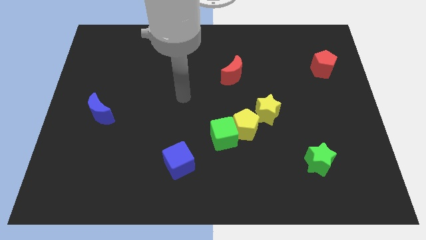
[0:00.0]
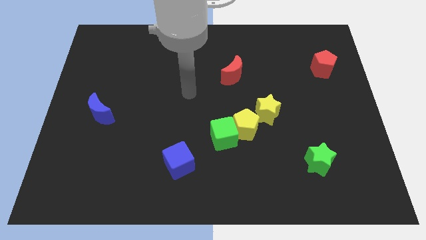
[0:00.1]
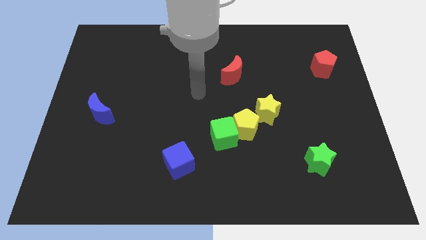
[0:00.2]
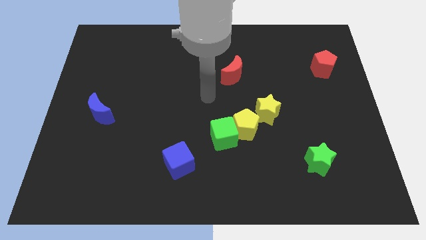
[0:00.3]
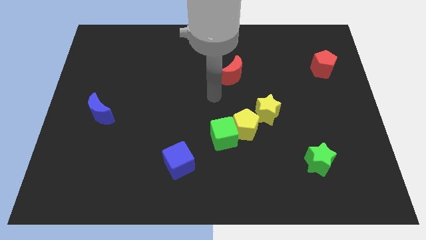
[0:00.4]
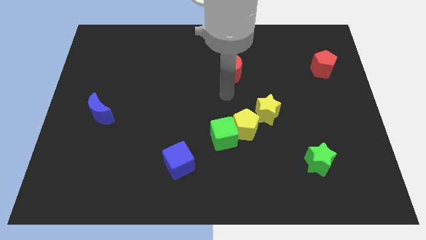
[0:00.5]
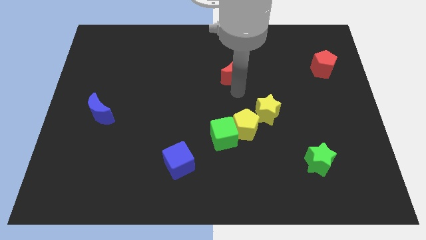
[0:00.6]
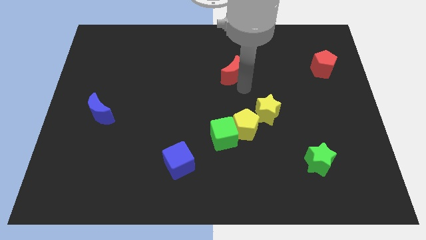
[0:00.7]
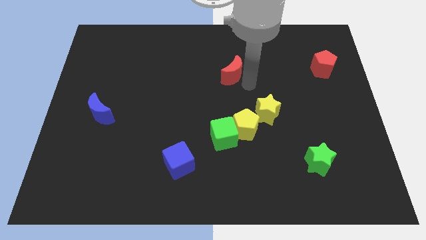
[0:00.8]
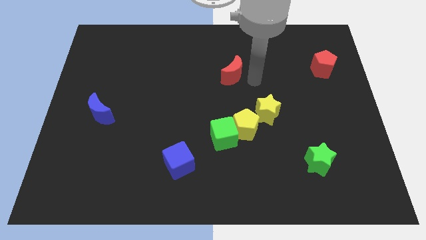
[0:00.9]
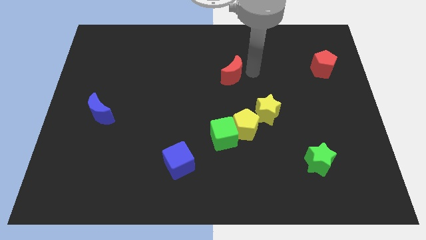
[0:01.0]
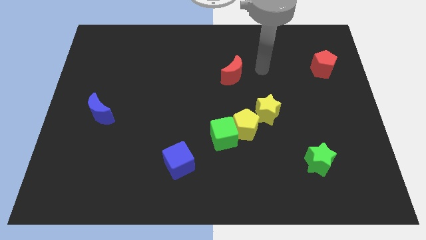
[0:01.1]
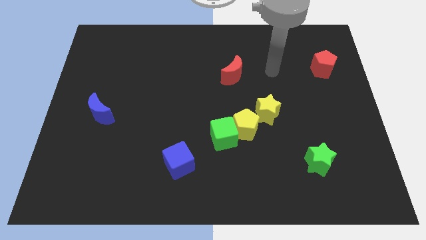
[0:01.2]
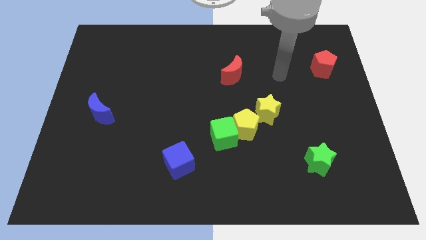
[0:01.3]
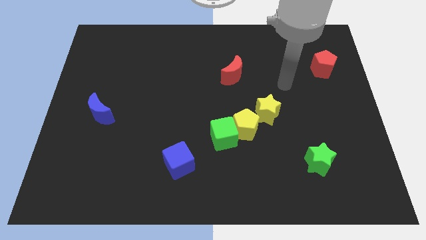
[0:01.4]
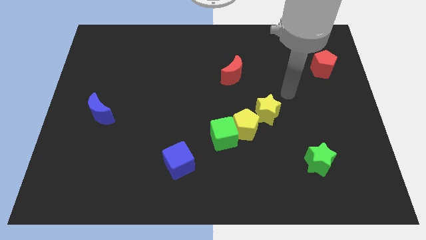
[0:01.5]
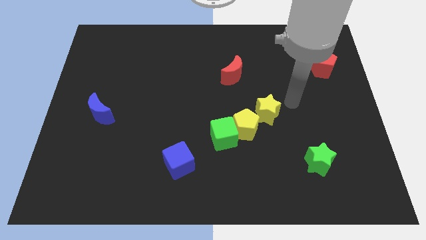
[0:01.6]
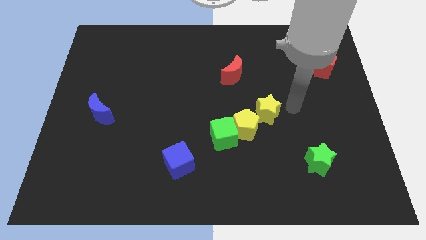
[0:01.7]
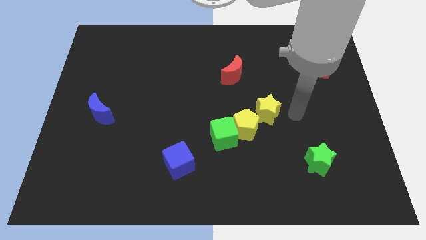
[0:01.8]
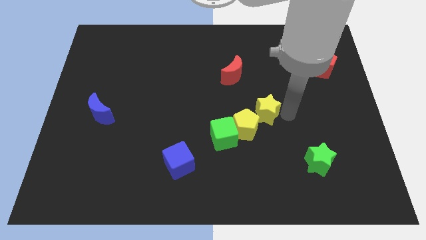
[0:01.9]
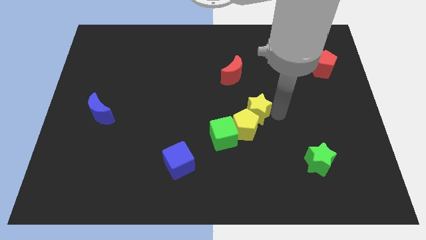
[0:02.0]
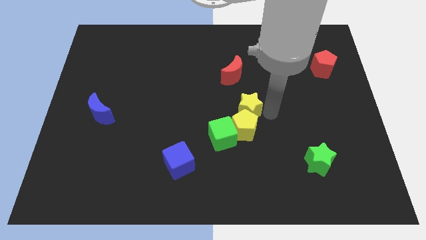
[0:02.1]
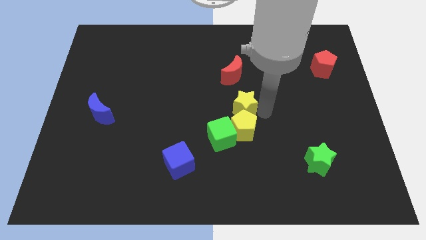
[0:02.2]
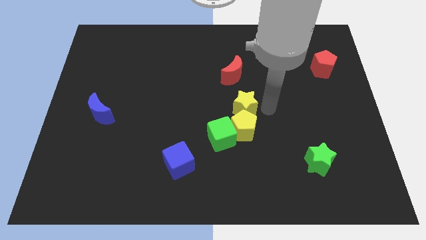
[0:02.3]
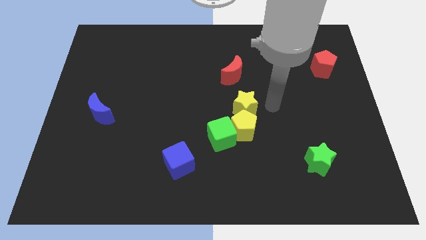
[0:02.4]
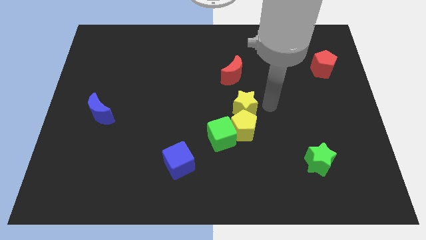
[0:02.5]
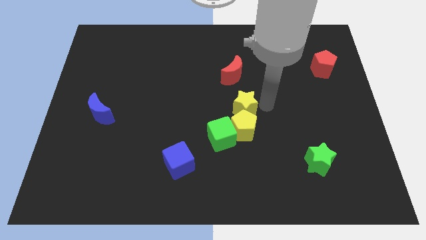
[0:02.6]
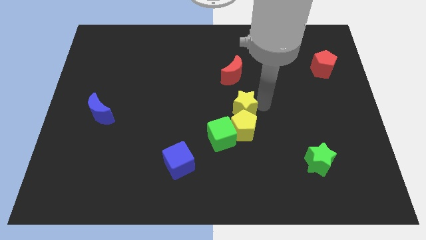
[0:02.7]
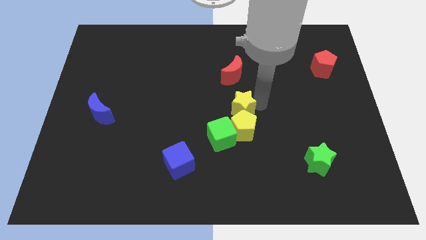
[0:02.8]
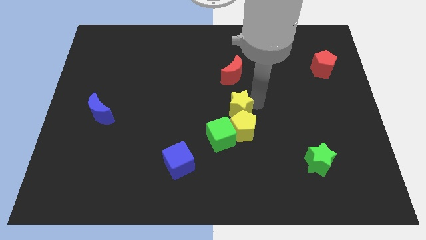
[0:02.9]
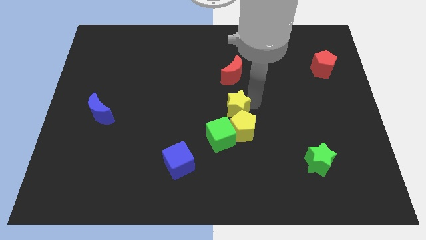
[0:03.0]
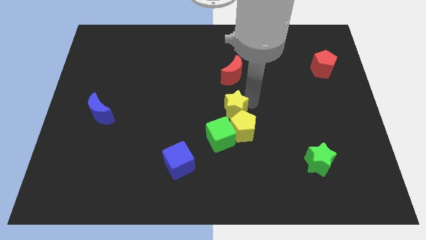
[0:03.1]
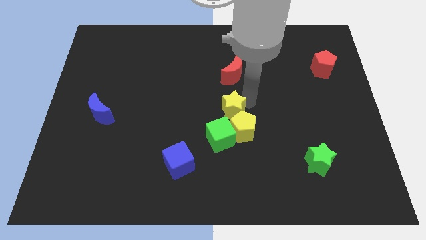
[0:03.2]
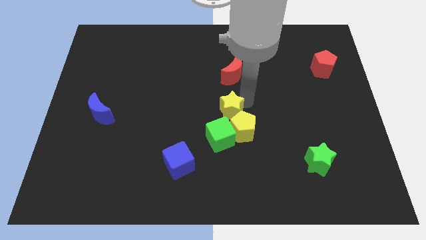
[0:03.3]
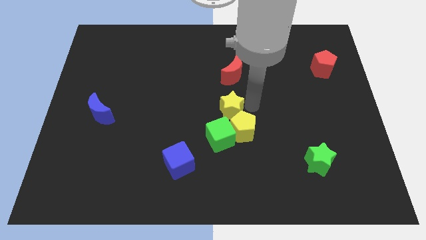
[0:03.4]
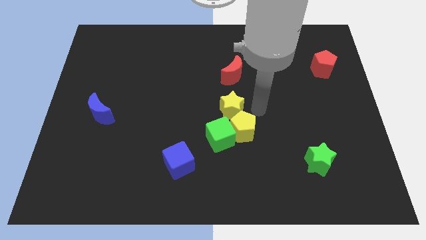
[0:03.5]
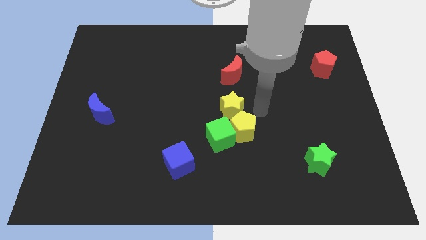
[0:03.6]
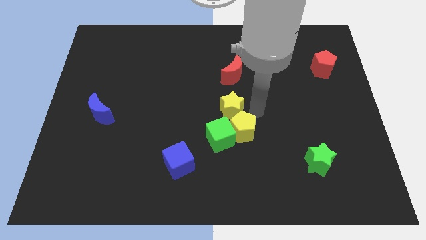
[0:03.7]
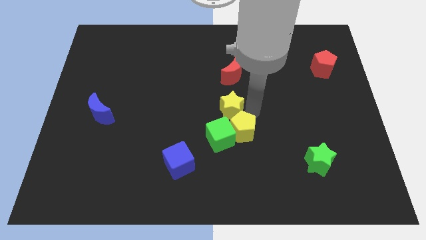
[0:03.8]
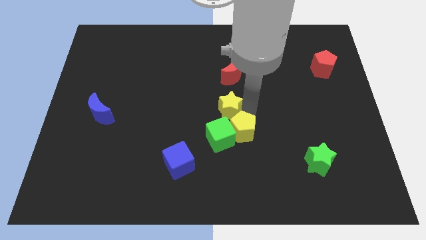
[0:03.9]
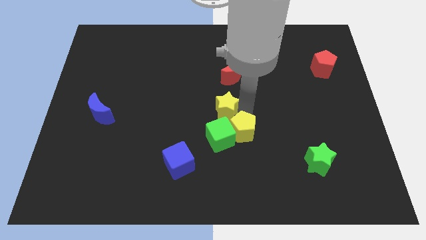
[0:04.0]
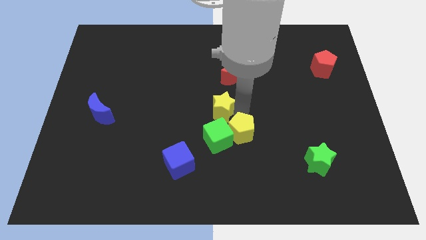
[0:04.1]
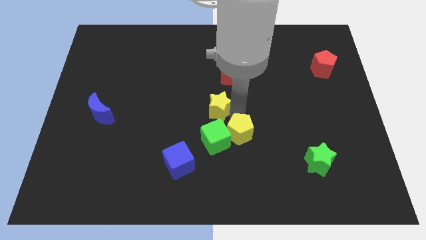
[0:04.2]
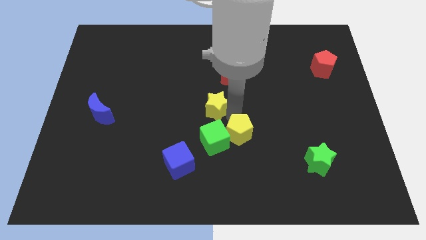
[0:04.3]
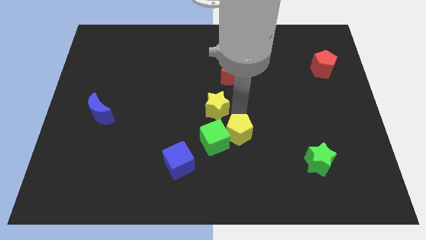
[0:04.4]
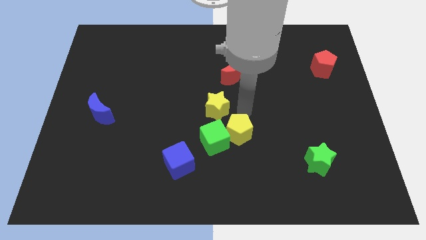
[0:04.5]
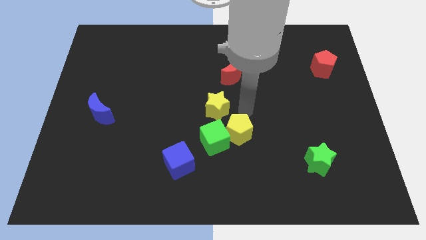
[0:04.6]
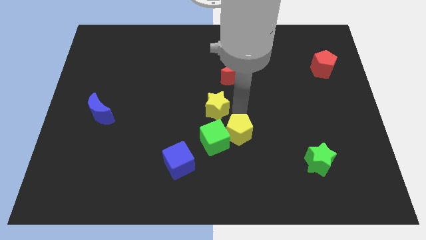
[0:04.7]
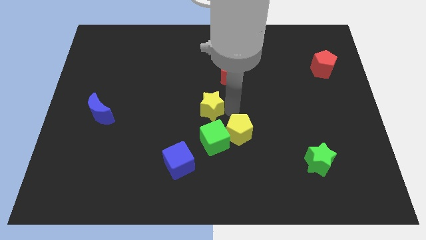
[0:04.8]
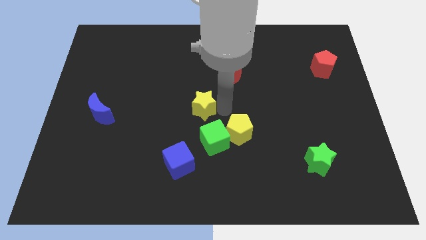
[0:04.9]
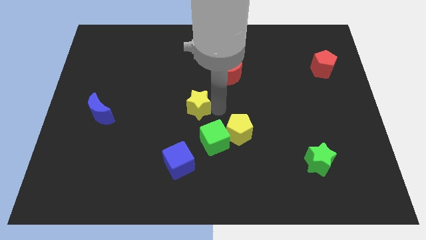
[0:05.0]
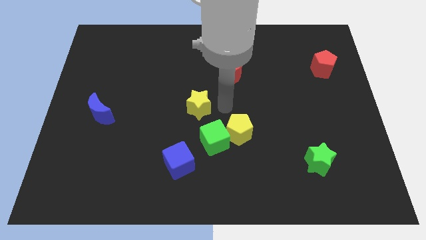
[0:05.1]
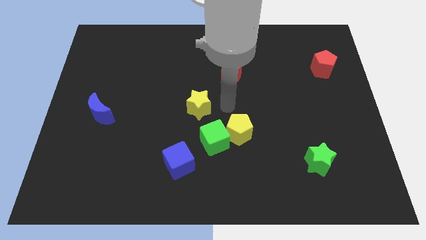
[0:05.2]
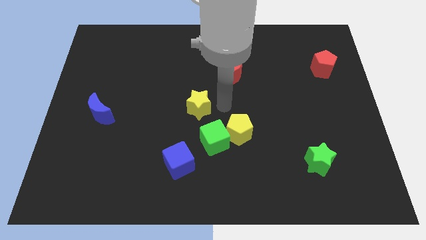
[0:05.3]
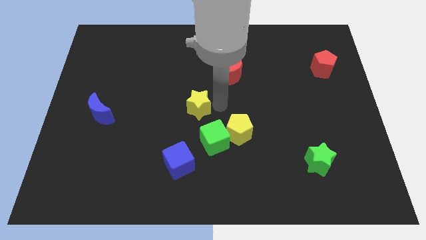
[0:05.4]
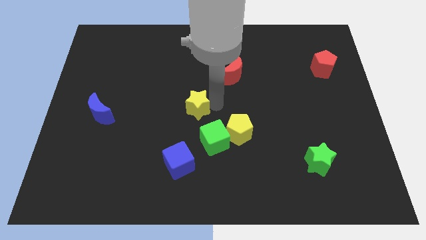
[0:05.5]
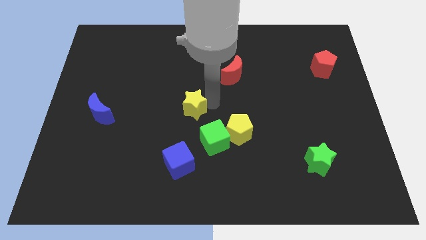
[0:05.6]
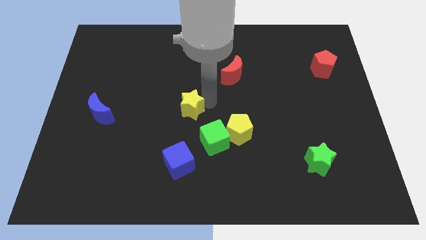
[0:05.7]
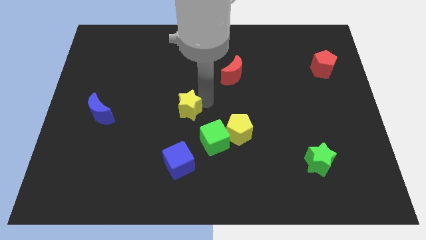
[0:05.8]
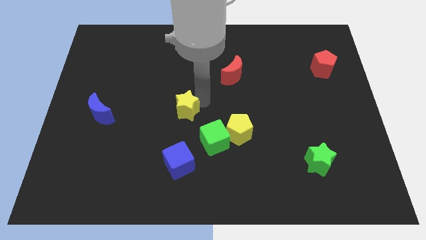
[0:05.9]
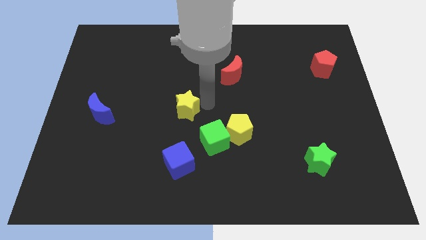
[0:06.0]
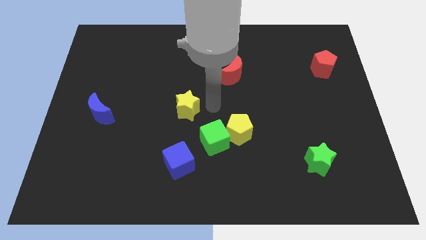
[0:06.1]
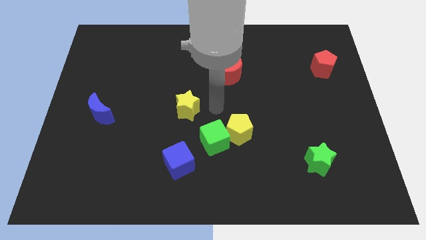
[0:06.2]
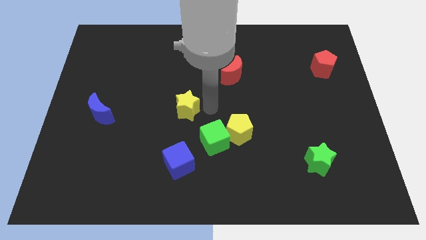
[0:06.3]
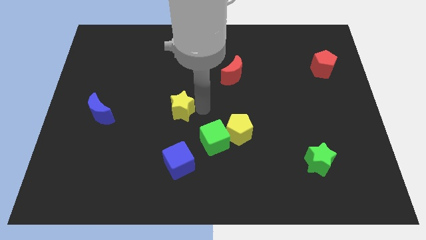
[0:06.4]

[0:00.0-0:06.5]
slide the yellow star to the left

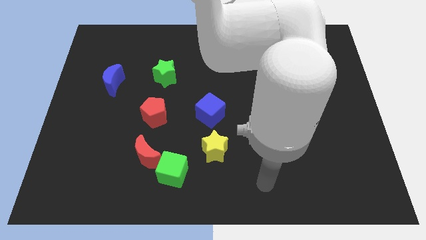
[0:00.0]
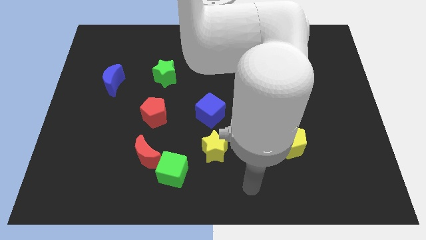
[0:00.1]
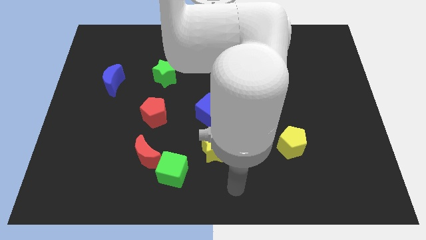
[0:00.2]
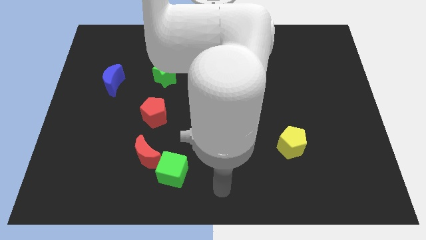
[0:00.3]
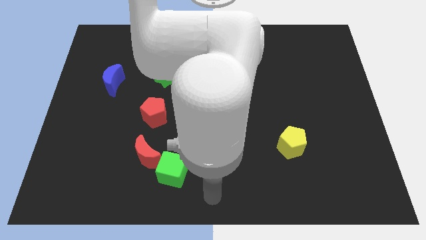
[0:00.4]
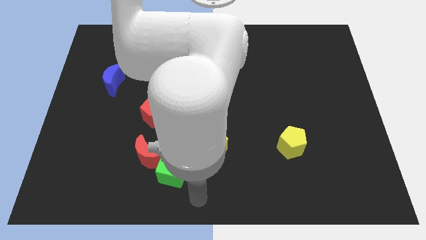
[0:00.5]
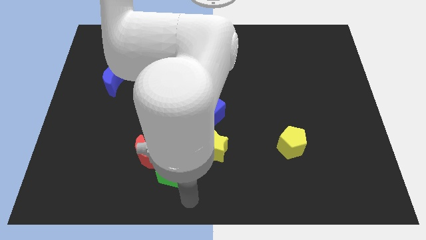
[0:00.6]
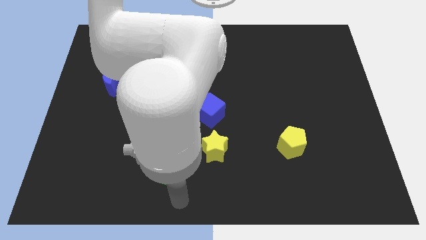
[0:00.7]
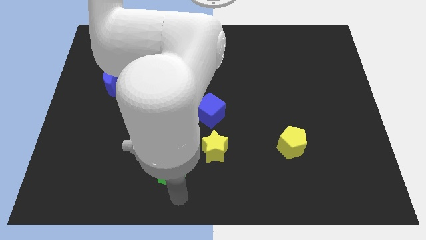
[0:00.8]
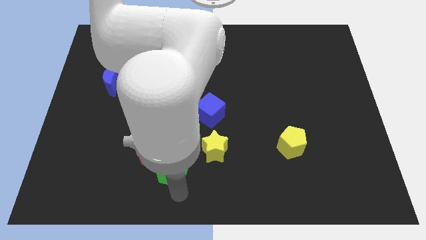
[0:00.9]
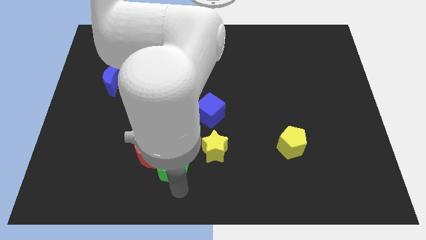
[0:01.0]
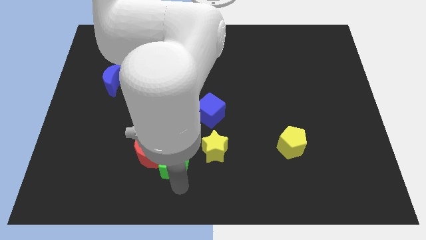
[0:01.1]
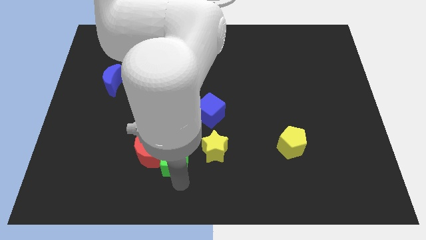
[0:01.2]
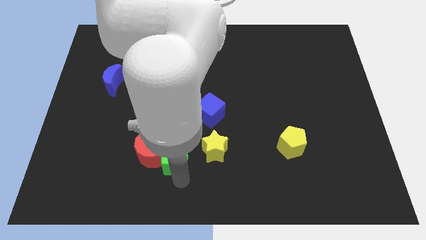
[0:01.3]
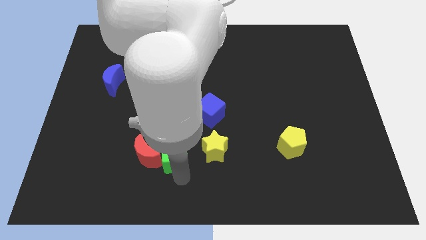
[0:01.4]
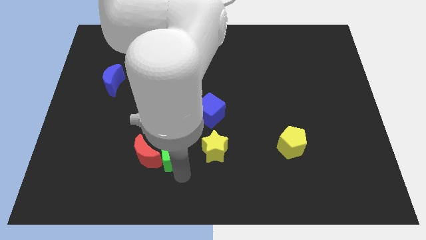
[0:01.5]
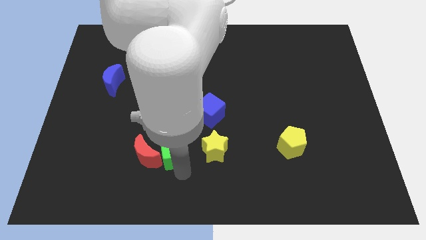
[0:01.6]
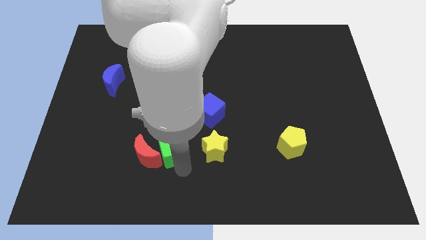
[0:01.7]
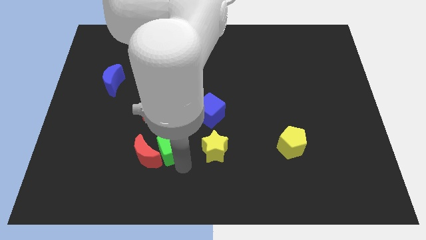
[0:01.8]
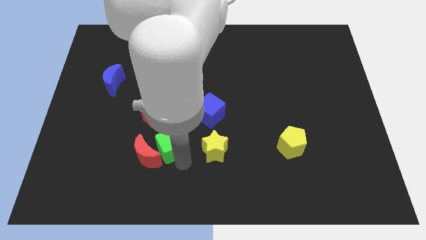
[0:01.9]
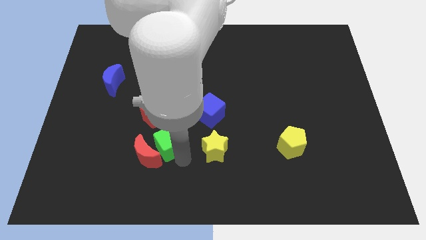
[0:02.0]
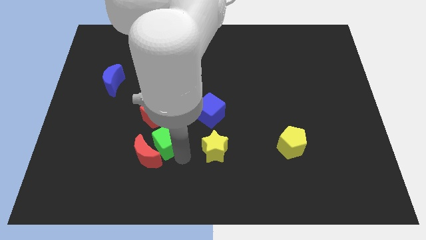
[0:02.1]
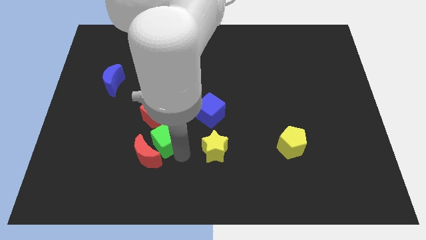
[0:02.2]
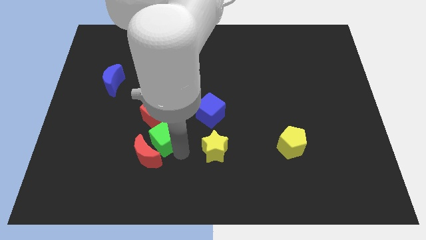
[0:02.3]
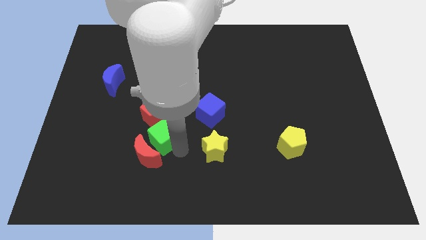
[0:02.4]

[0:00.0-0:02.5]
push the green cube upwards and left diagonally a little
